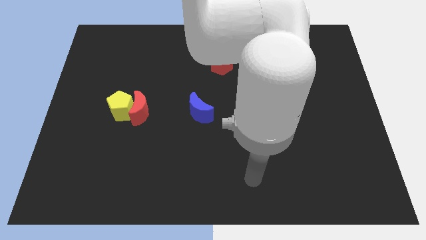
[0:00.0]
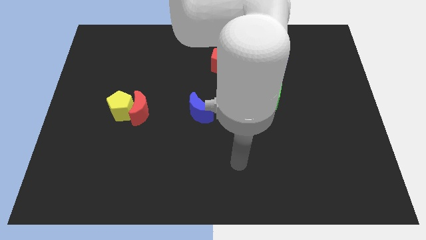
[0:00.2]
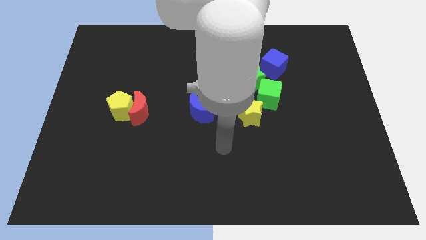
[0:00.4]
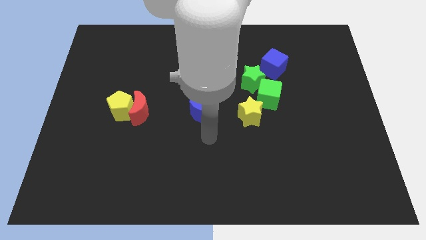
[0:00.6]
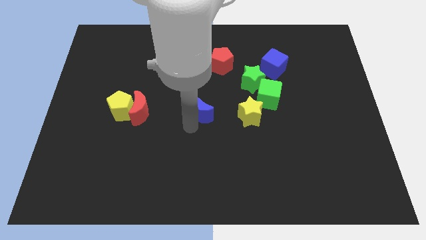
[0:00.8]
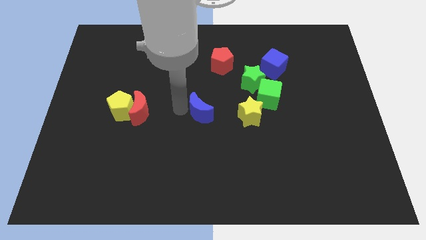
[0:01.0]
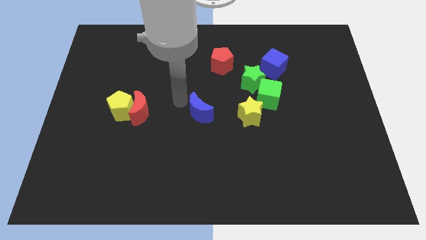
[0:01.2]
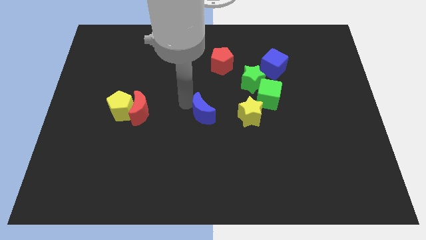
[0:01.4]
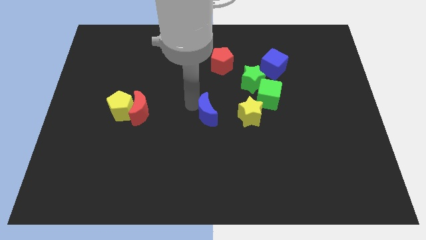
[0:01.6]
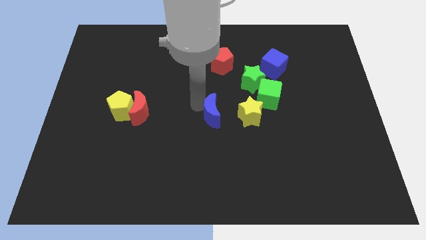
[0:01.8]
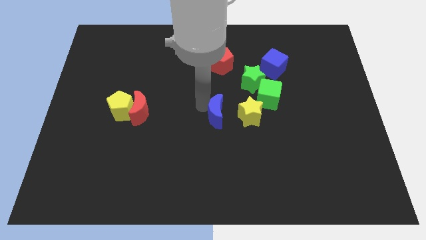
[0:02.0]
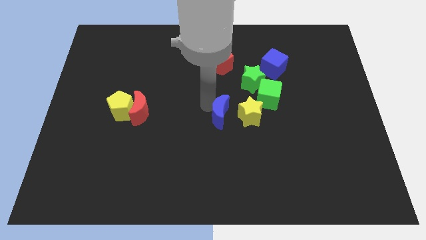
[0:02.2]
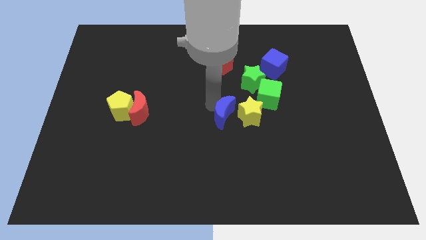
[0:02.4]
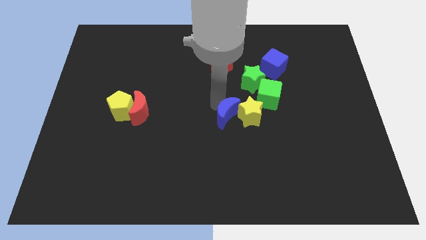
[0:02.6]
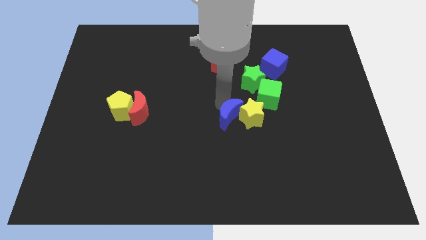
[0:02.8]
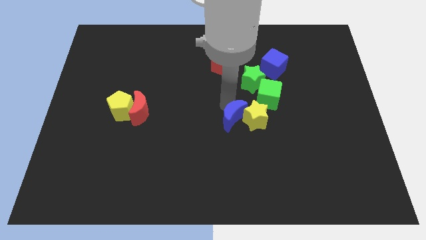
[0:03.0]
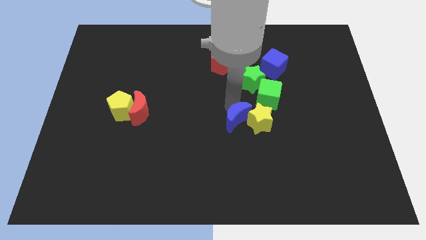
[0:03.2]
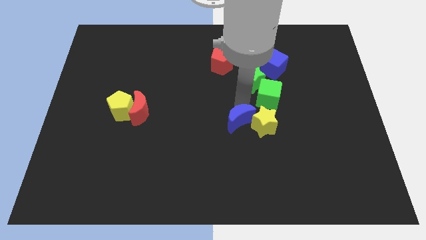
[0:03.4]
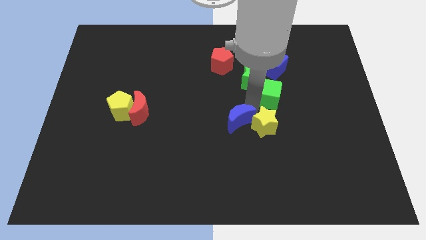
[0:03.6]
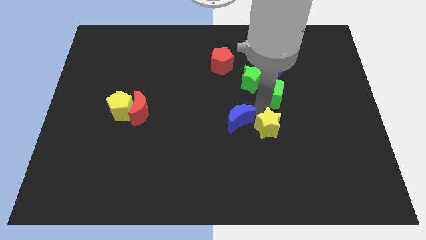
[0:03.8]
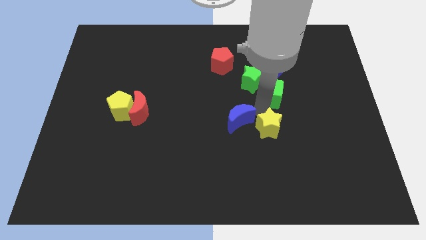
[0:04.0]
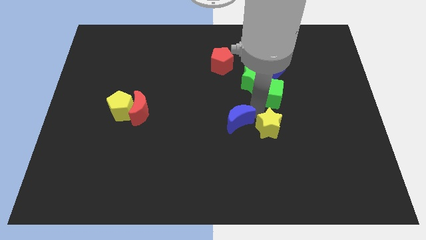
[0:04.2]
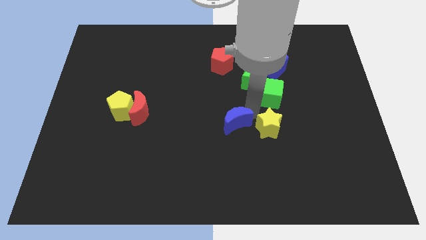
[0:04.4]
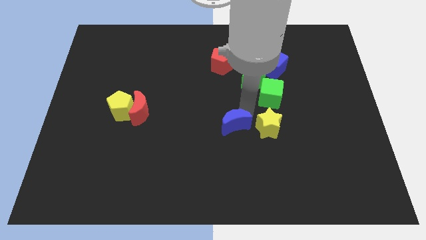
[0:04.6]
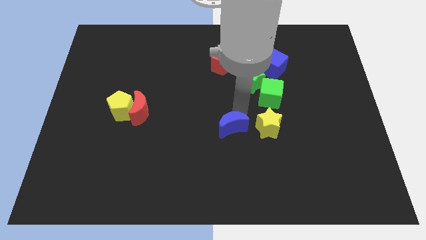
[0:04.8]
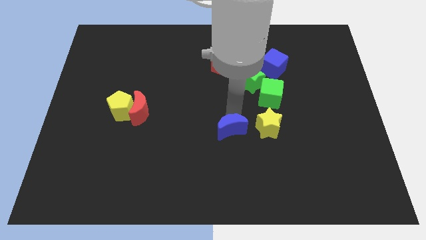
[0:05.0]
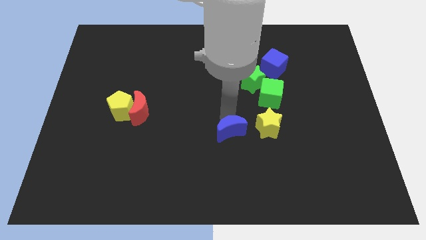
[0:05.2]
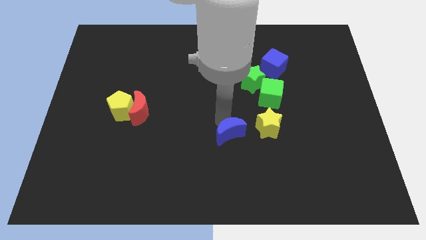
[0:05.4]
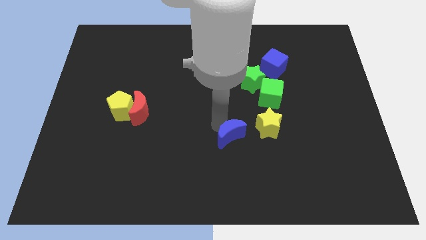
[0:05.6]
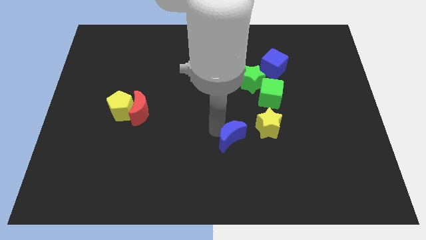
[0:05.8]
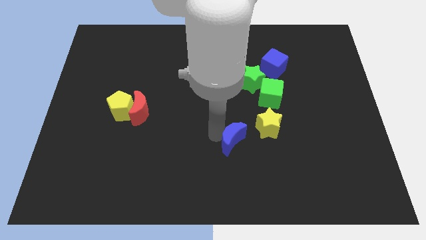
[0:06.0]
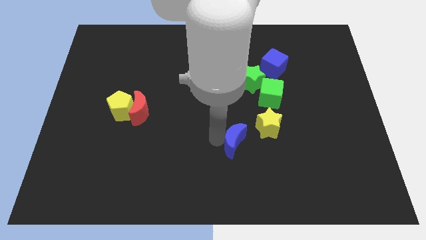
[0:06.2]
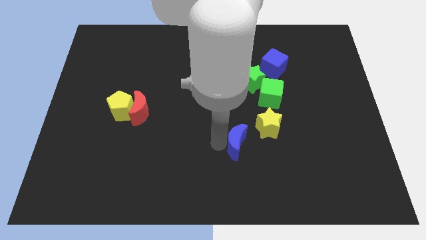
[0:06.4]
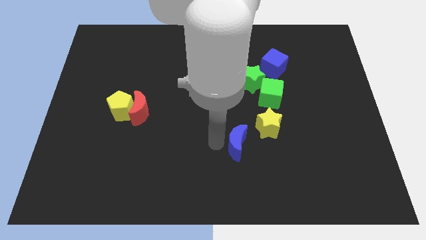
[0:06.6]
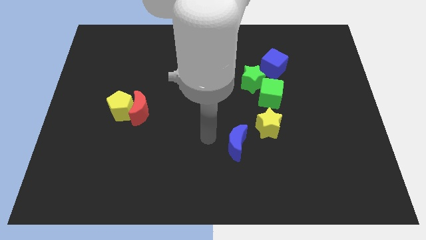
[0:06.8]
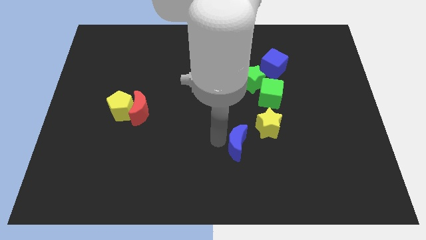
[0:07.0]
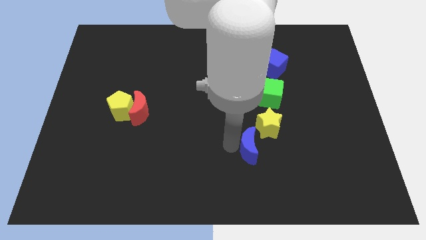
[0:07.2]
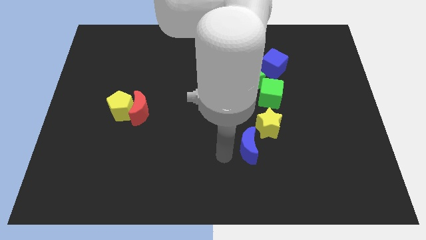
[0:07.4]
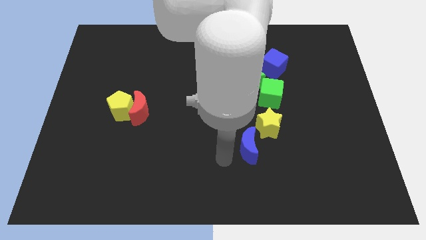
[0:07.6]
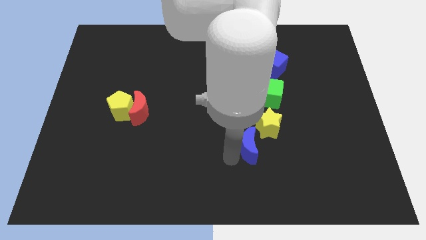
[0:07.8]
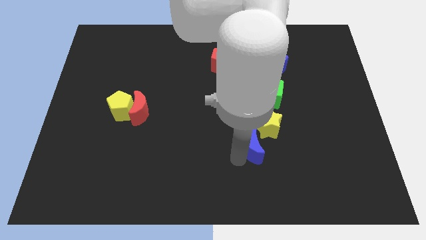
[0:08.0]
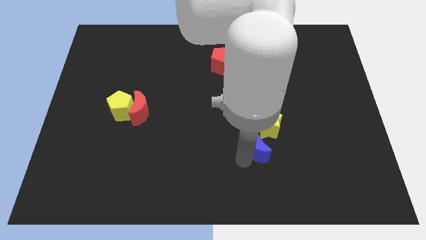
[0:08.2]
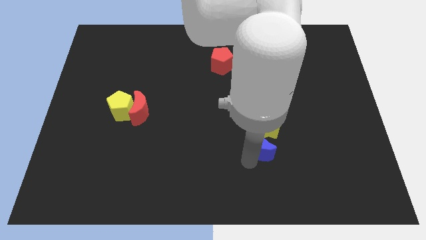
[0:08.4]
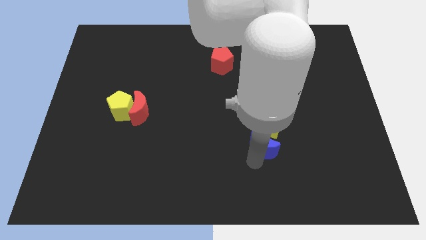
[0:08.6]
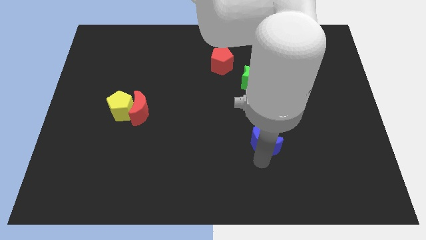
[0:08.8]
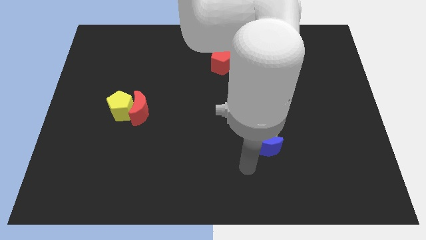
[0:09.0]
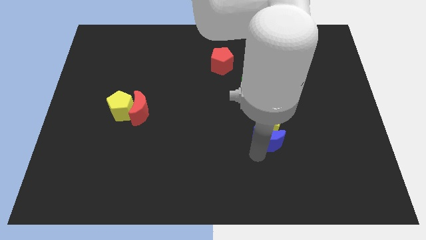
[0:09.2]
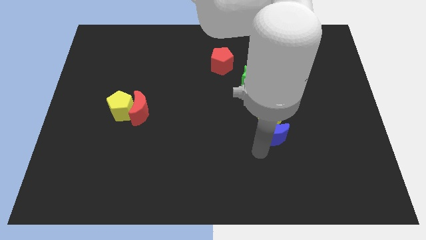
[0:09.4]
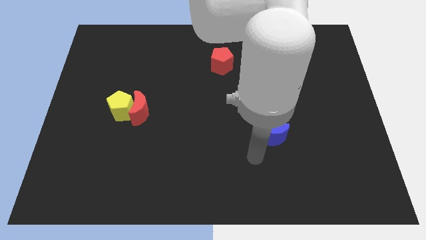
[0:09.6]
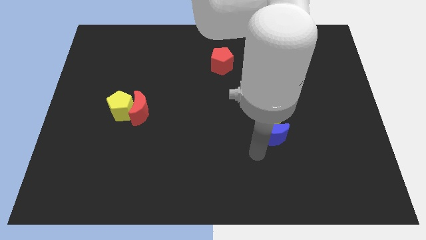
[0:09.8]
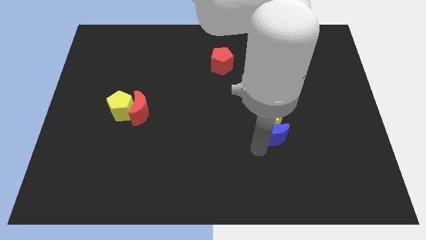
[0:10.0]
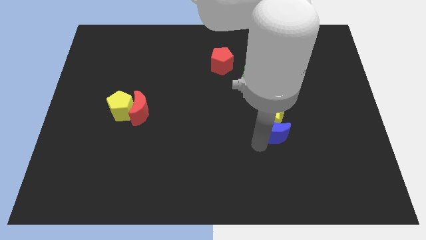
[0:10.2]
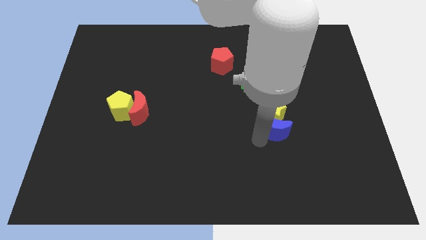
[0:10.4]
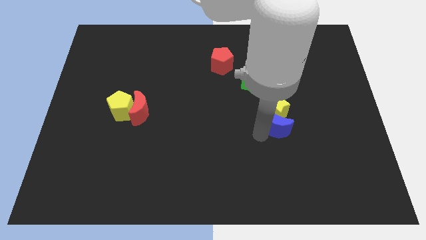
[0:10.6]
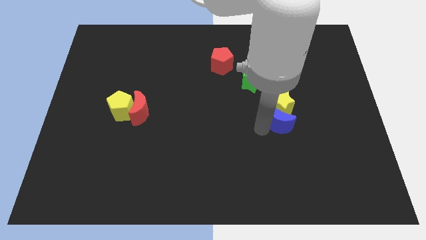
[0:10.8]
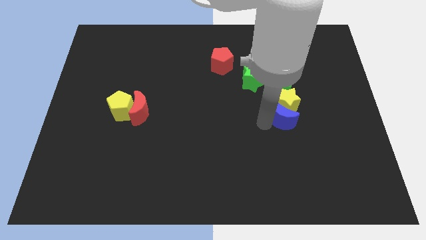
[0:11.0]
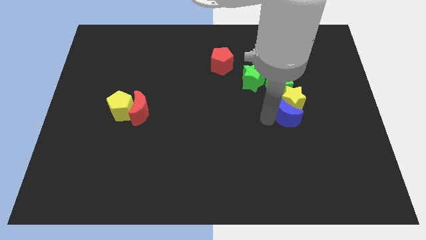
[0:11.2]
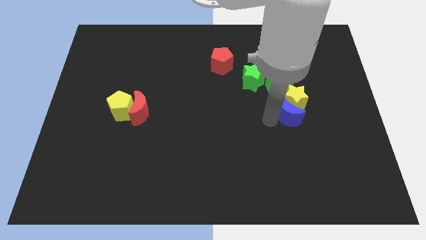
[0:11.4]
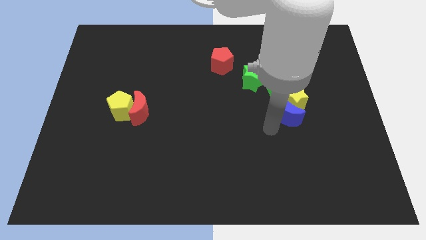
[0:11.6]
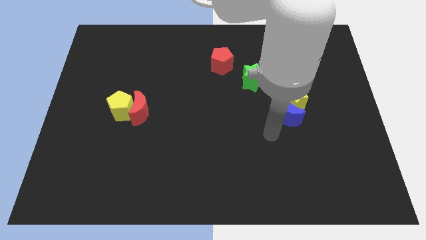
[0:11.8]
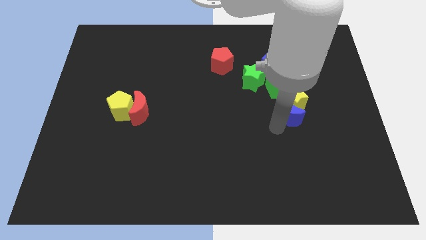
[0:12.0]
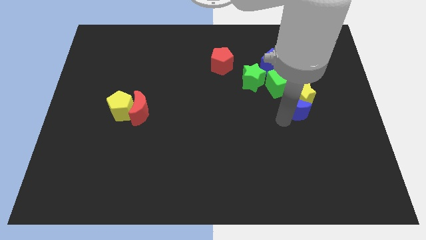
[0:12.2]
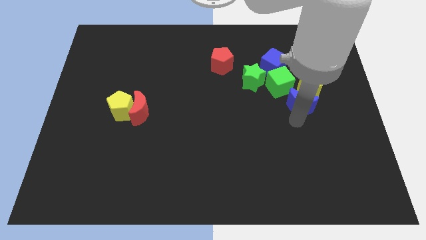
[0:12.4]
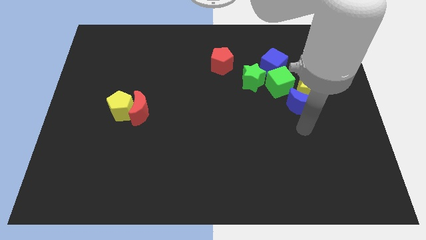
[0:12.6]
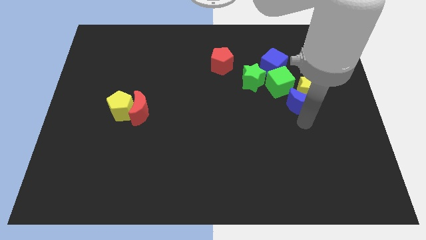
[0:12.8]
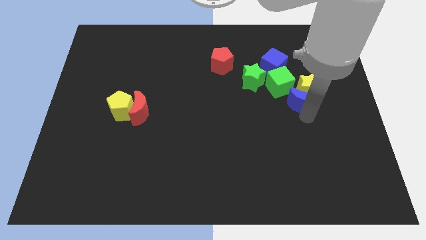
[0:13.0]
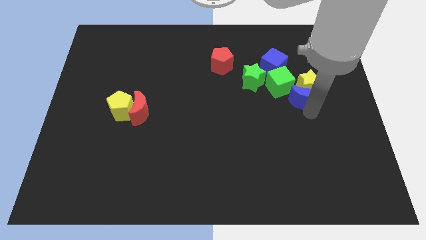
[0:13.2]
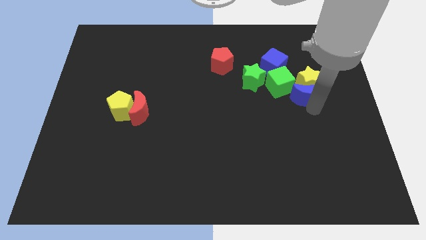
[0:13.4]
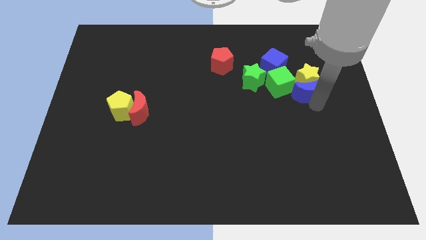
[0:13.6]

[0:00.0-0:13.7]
slide the blue moon to the right of the green star
